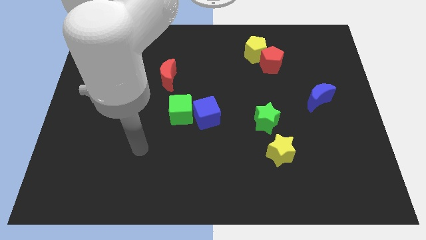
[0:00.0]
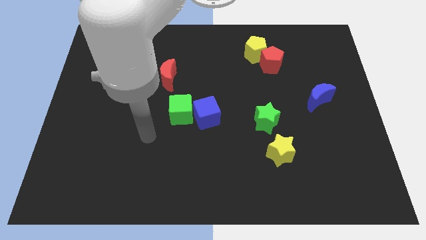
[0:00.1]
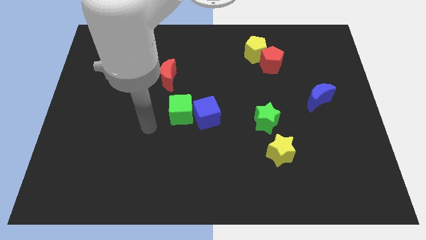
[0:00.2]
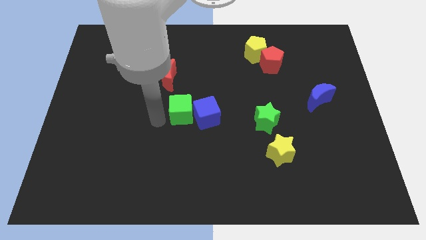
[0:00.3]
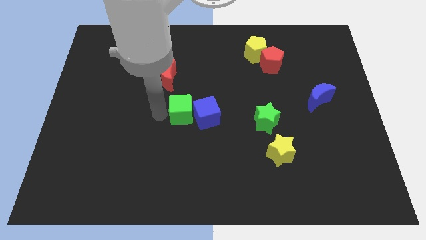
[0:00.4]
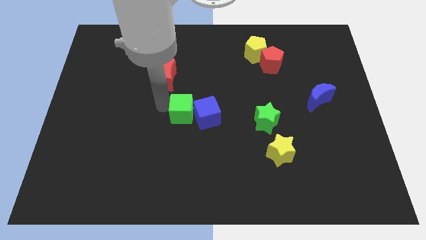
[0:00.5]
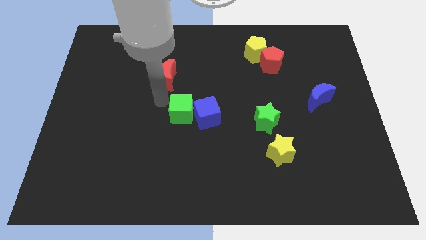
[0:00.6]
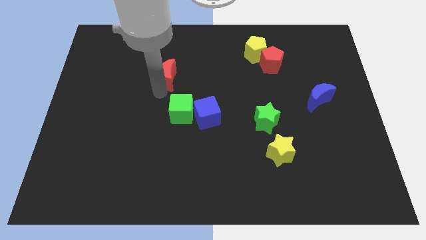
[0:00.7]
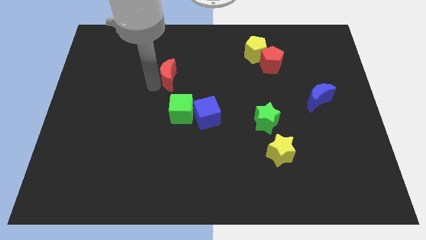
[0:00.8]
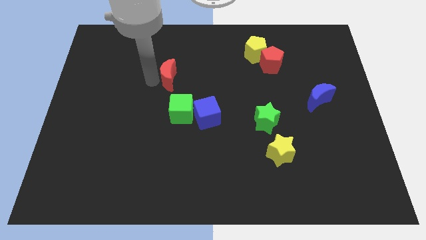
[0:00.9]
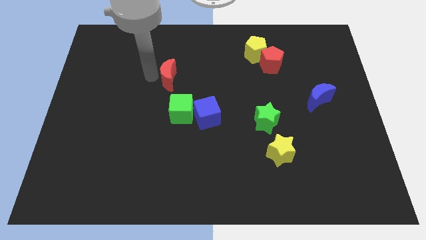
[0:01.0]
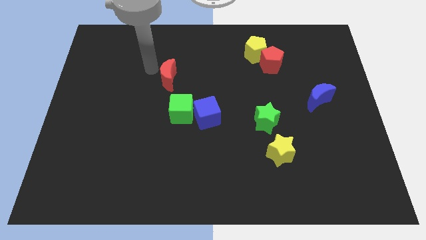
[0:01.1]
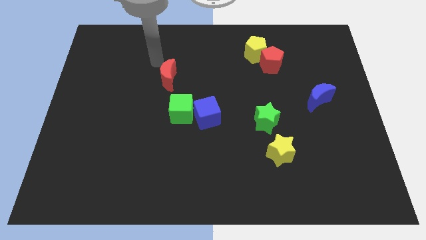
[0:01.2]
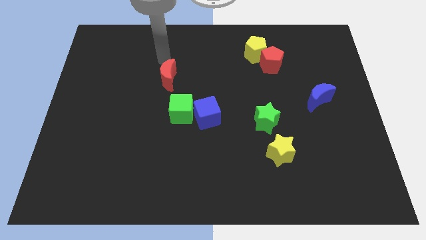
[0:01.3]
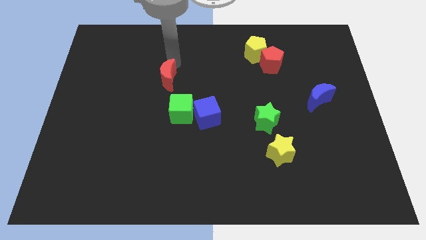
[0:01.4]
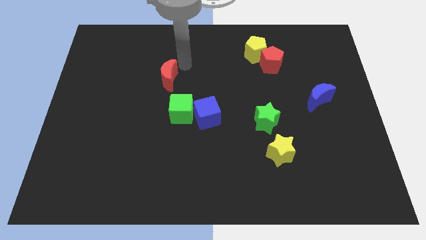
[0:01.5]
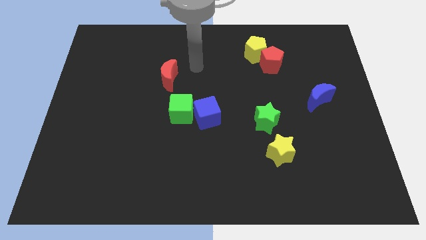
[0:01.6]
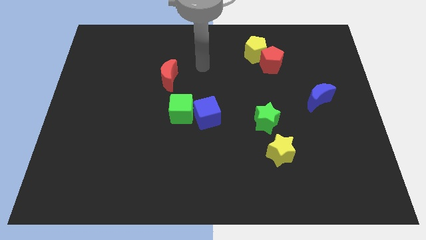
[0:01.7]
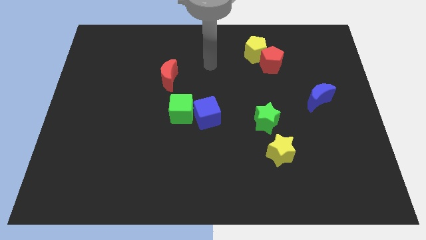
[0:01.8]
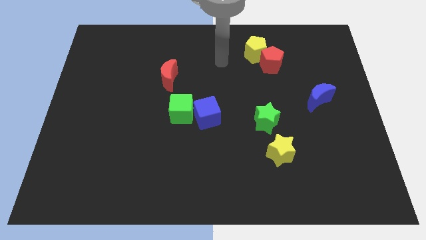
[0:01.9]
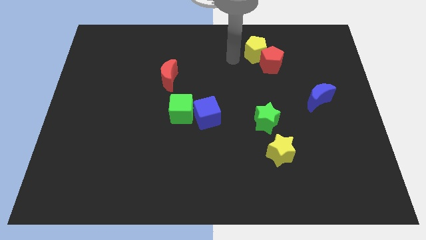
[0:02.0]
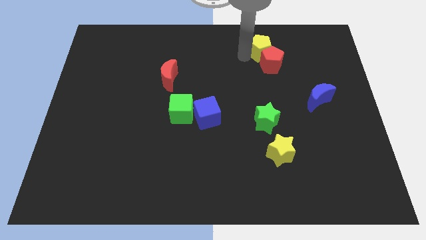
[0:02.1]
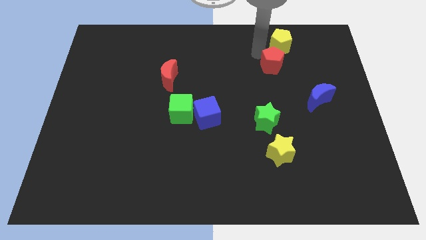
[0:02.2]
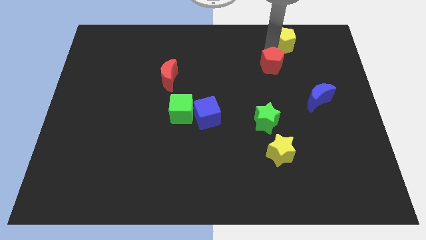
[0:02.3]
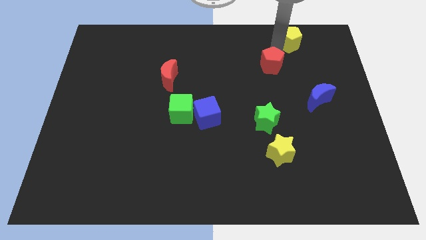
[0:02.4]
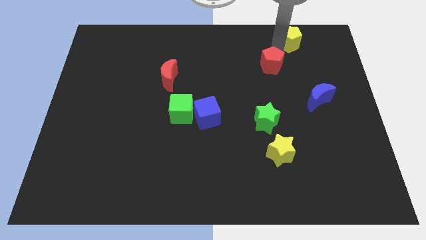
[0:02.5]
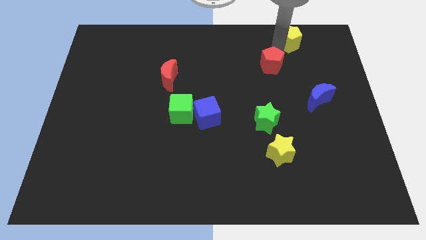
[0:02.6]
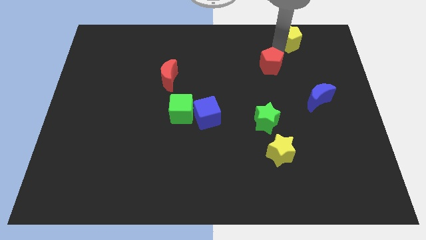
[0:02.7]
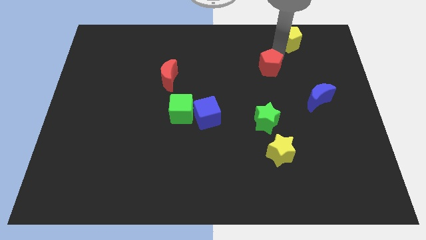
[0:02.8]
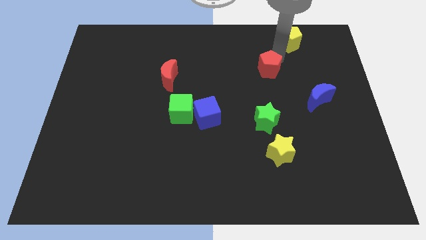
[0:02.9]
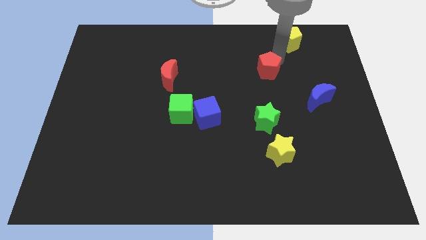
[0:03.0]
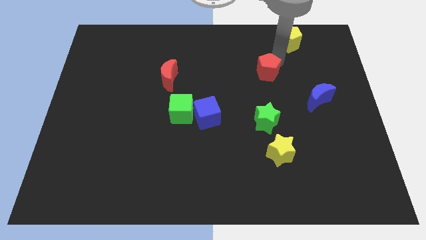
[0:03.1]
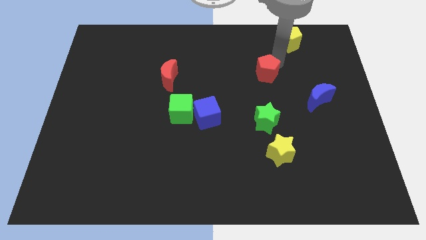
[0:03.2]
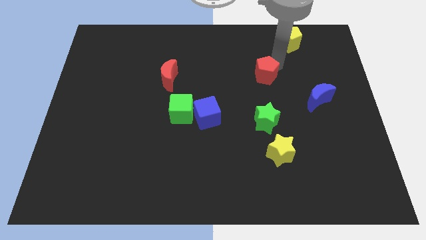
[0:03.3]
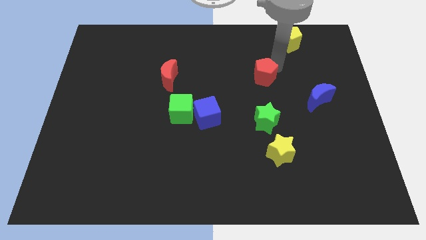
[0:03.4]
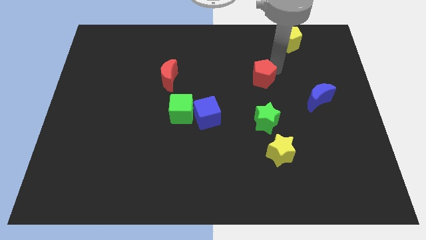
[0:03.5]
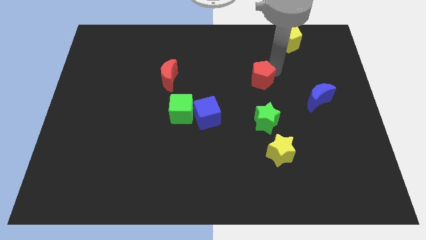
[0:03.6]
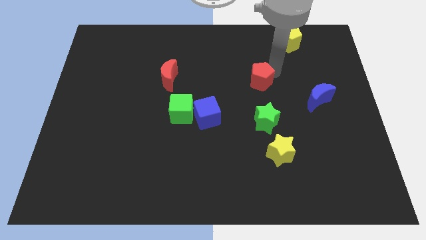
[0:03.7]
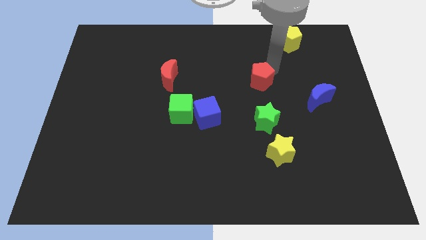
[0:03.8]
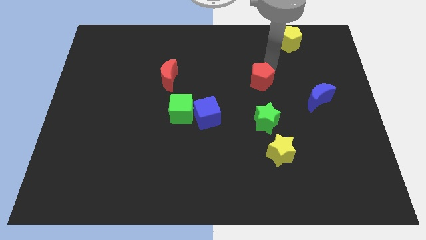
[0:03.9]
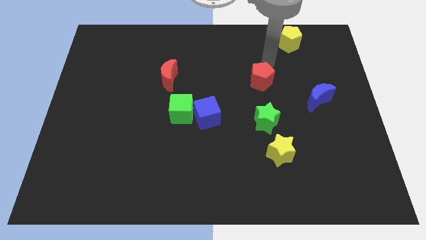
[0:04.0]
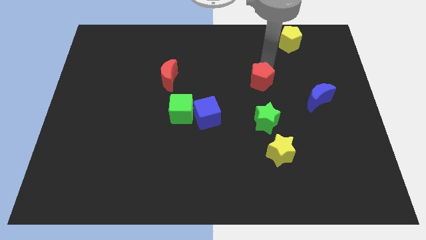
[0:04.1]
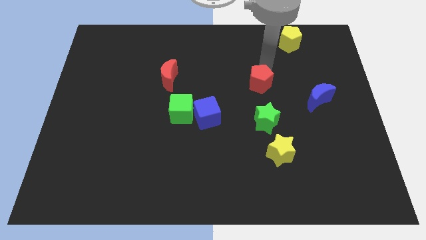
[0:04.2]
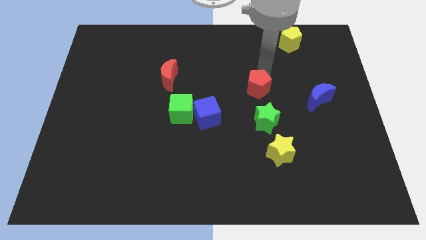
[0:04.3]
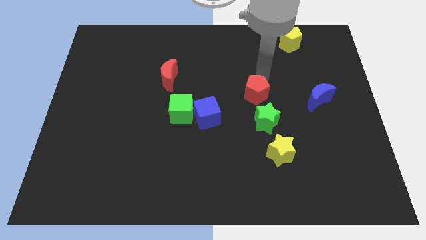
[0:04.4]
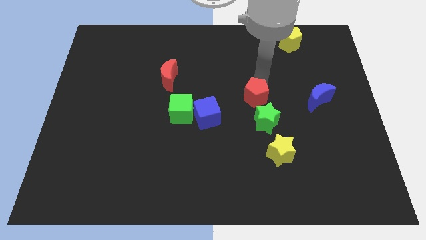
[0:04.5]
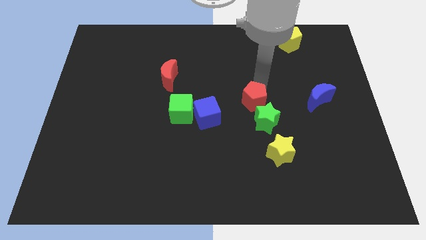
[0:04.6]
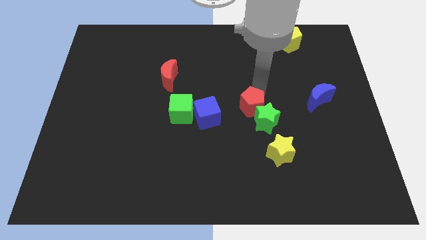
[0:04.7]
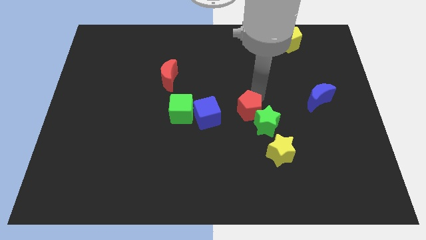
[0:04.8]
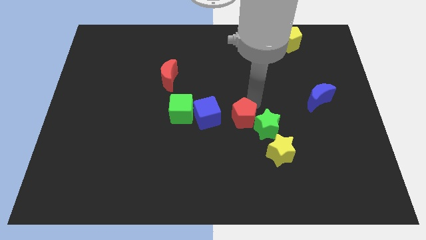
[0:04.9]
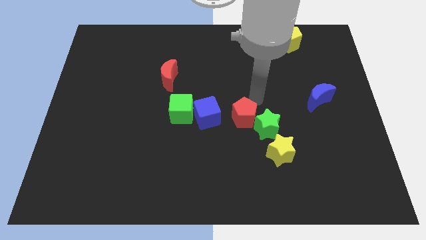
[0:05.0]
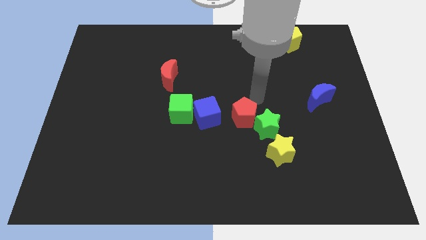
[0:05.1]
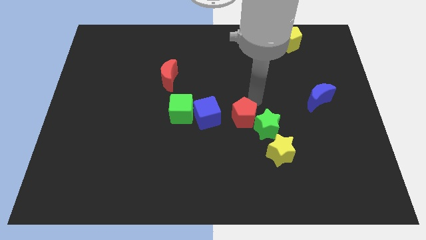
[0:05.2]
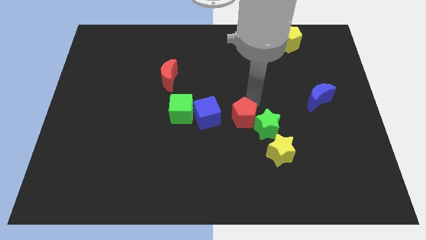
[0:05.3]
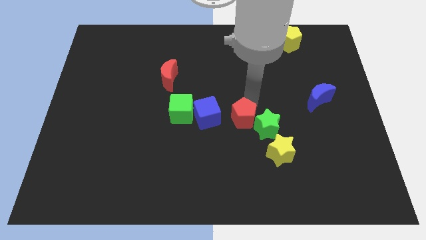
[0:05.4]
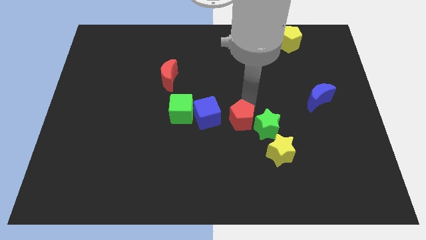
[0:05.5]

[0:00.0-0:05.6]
push the red pentagon to the bottom right of the blue cube

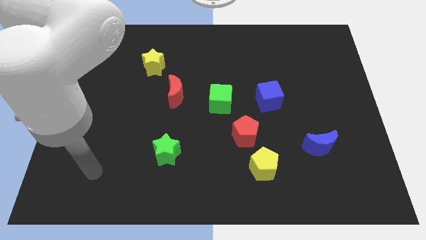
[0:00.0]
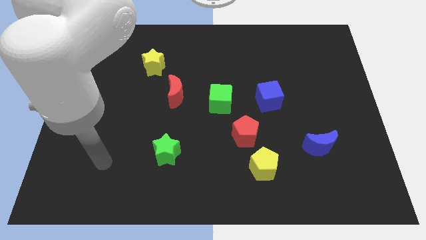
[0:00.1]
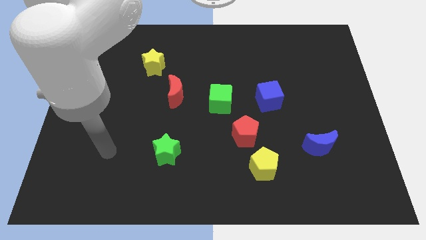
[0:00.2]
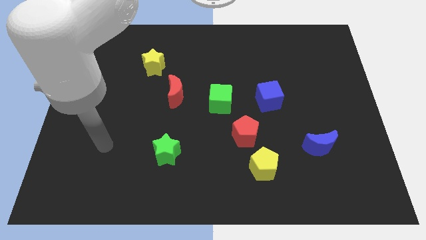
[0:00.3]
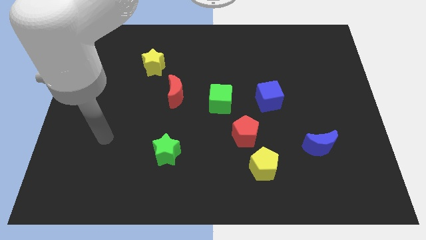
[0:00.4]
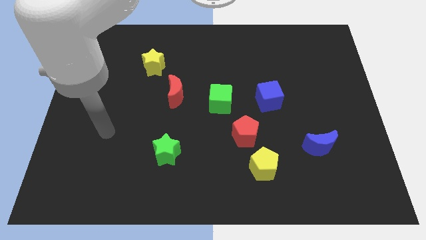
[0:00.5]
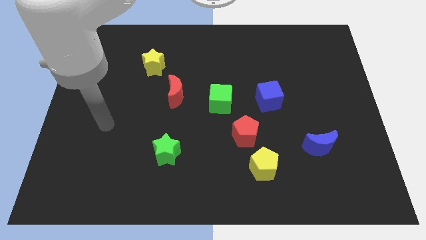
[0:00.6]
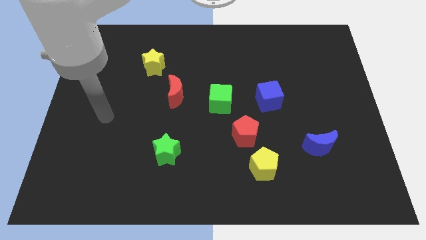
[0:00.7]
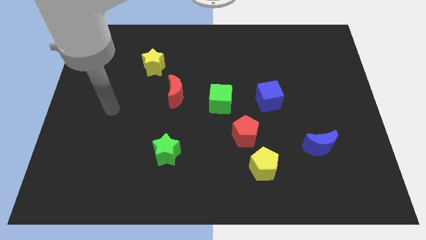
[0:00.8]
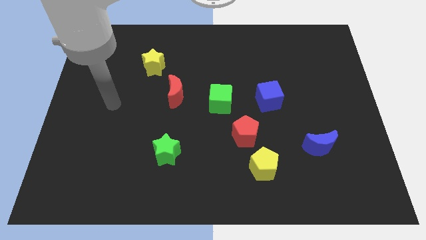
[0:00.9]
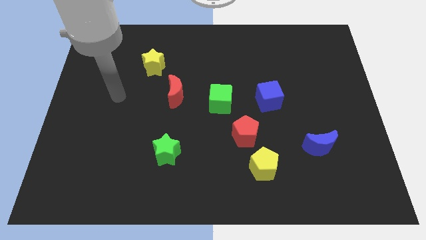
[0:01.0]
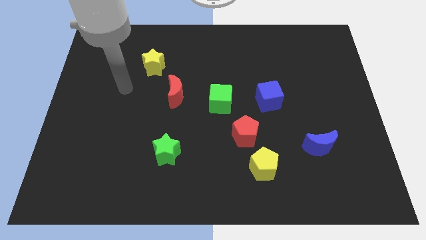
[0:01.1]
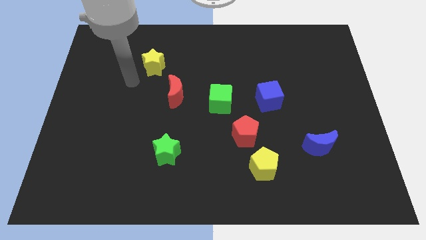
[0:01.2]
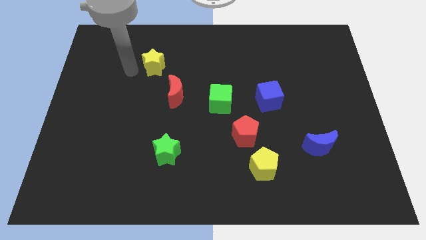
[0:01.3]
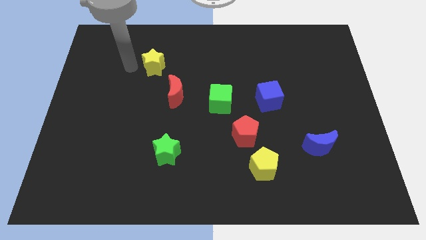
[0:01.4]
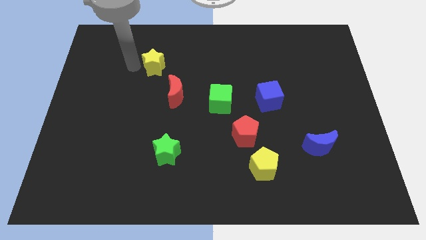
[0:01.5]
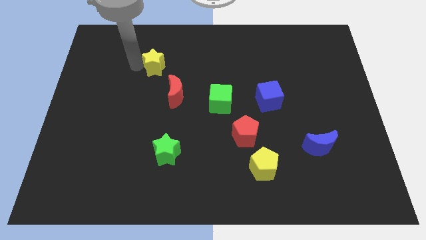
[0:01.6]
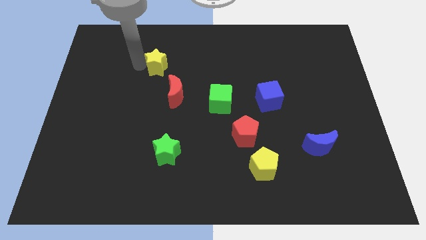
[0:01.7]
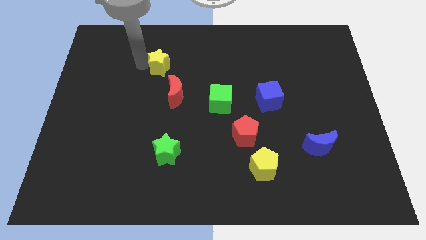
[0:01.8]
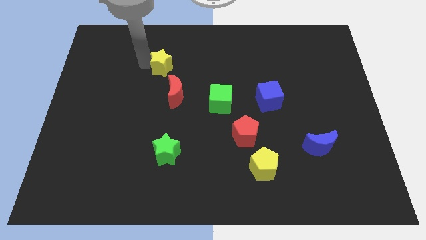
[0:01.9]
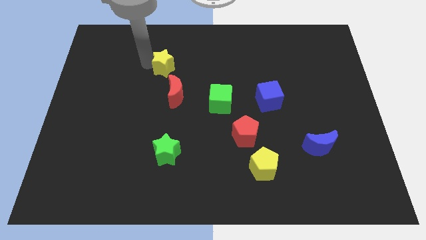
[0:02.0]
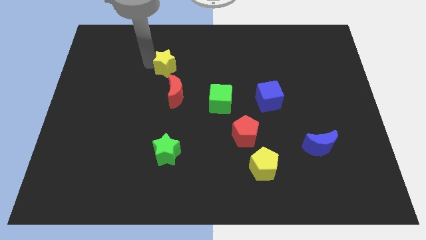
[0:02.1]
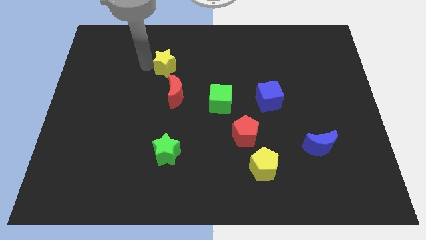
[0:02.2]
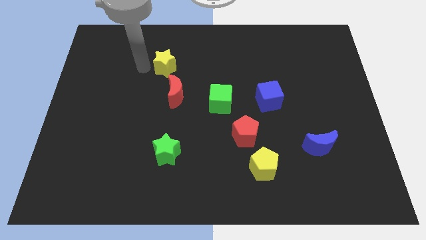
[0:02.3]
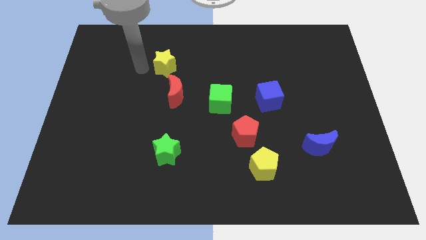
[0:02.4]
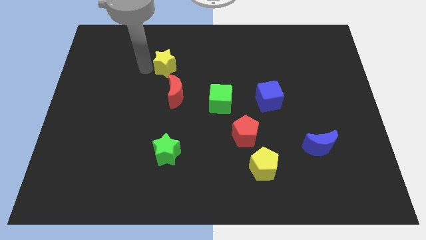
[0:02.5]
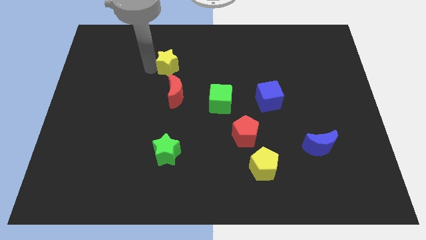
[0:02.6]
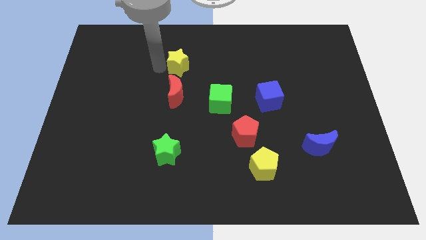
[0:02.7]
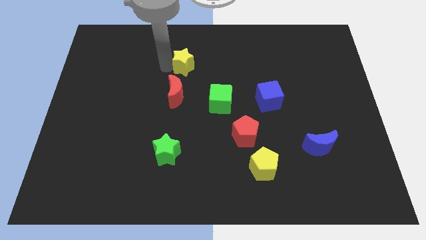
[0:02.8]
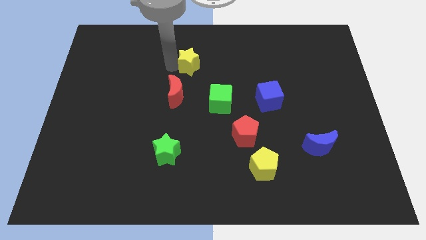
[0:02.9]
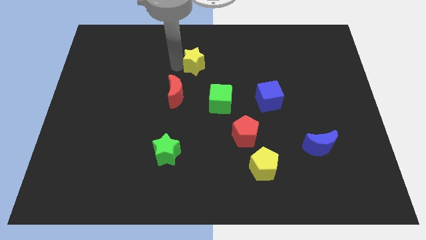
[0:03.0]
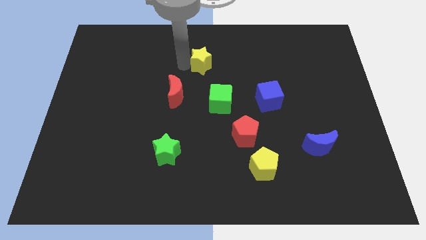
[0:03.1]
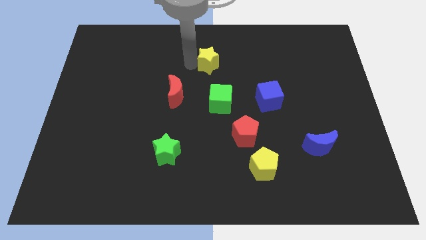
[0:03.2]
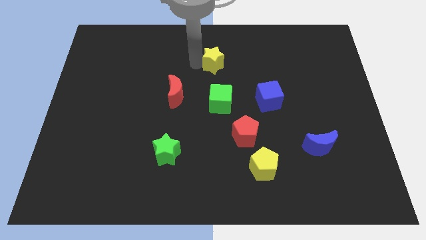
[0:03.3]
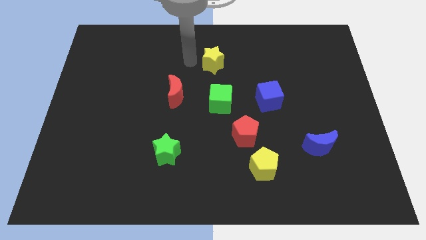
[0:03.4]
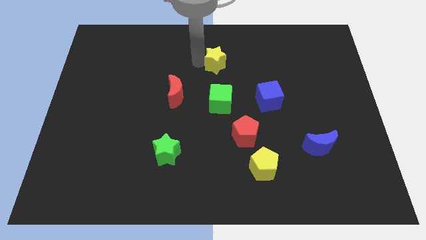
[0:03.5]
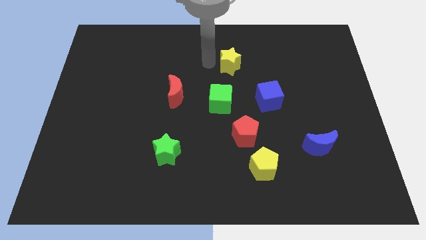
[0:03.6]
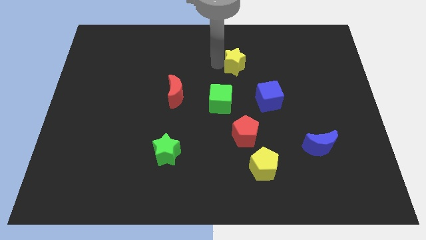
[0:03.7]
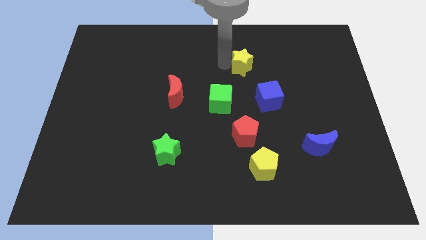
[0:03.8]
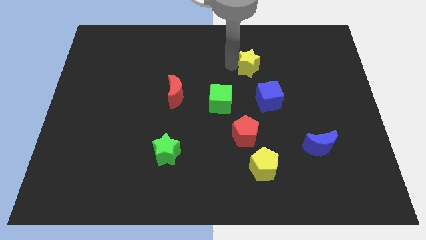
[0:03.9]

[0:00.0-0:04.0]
move the yellow star above the blue cube
